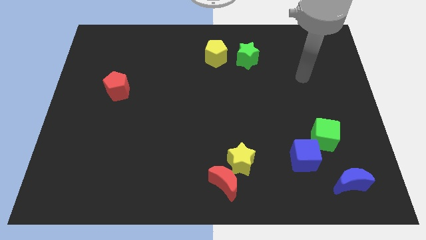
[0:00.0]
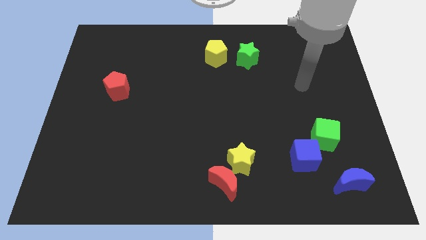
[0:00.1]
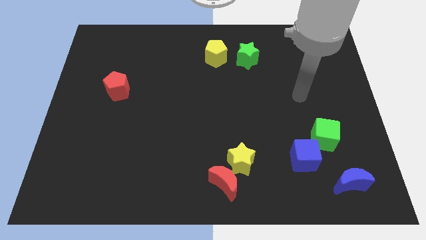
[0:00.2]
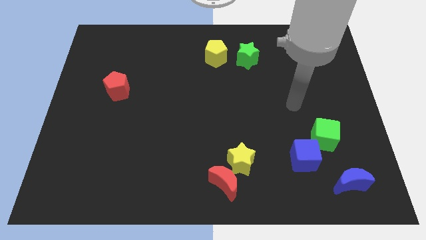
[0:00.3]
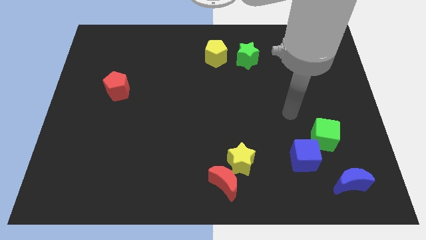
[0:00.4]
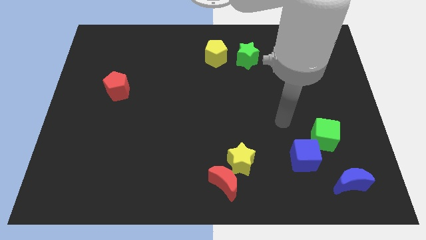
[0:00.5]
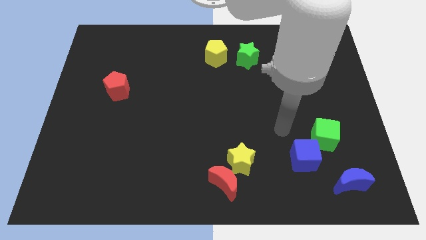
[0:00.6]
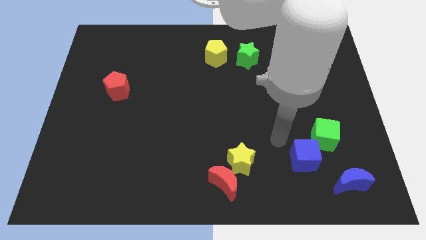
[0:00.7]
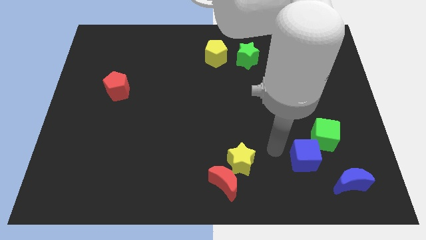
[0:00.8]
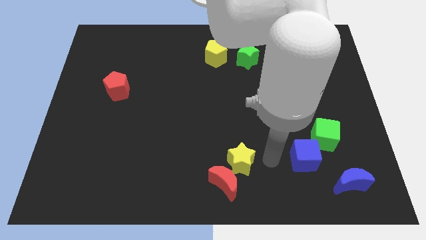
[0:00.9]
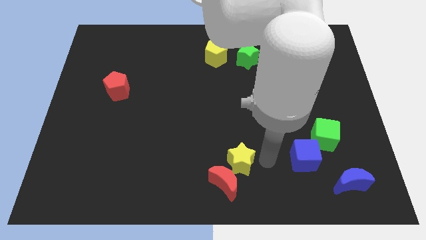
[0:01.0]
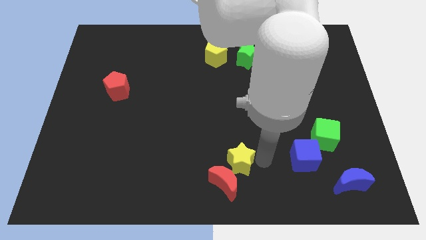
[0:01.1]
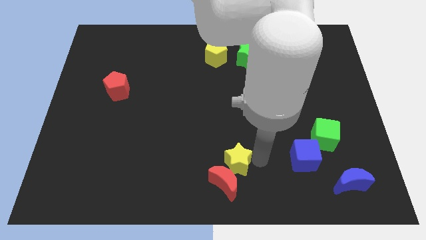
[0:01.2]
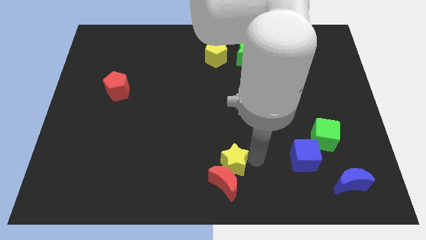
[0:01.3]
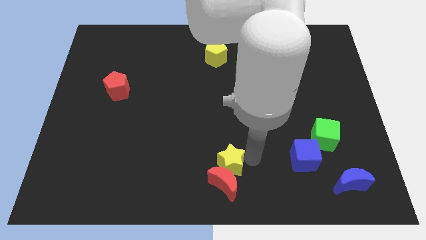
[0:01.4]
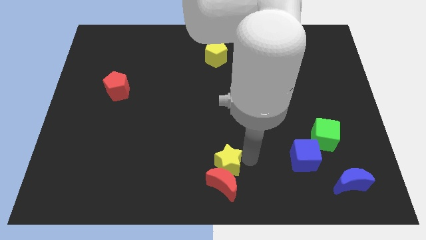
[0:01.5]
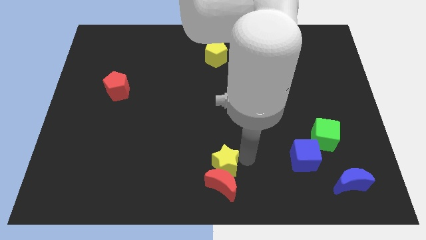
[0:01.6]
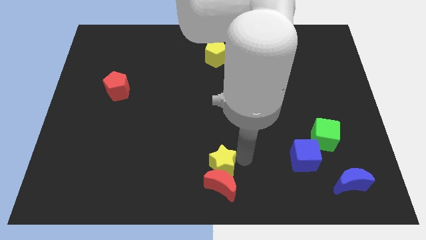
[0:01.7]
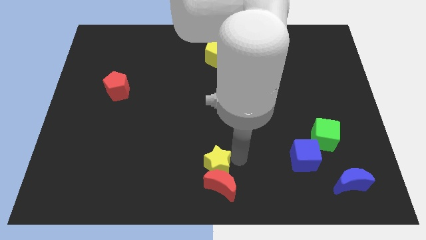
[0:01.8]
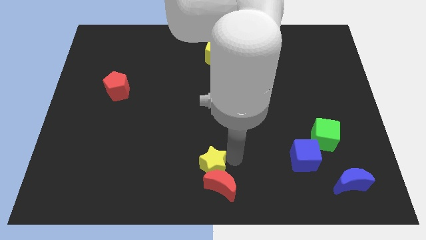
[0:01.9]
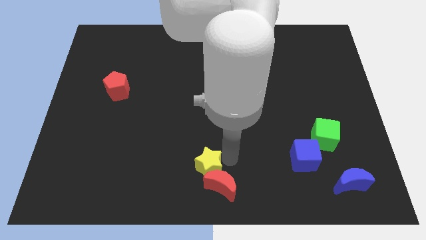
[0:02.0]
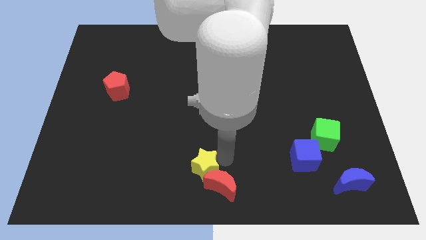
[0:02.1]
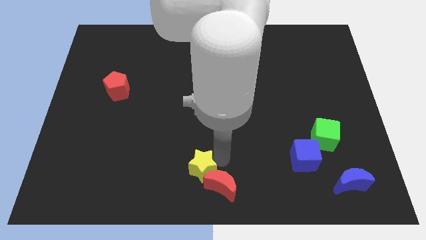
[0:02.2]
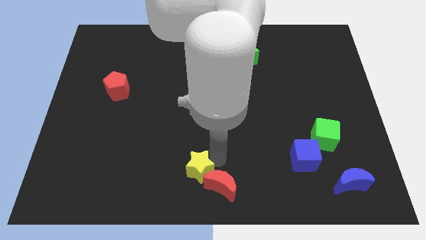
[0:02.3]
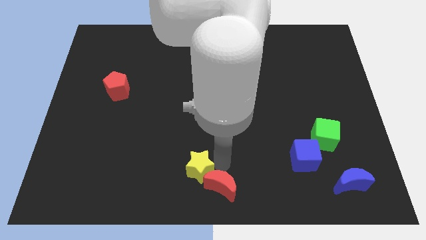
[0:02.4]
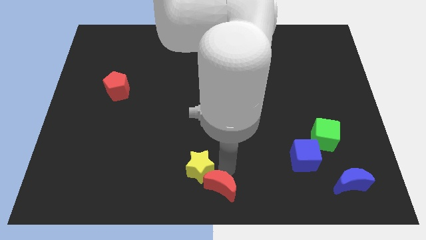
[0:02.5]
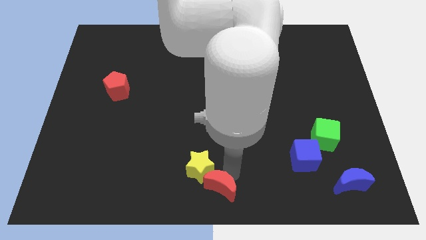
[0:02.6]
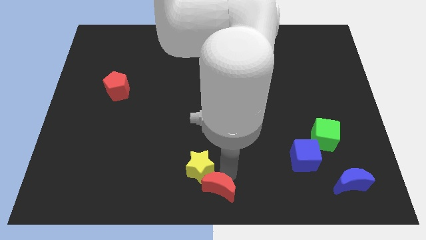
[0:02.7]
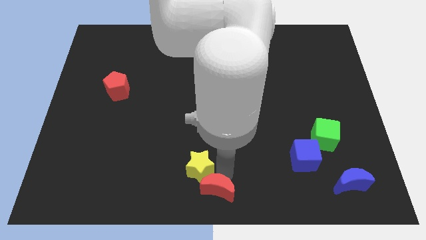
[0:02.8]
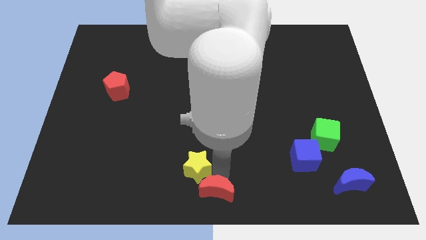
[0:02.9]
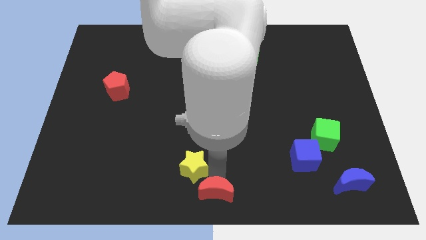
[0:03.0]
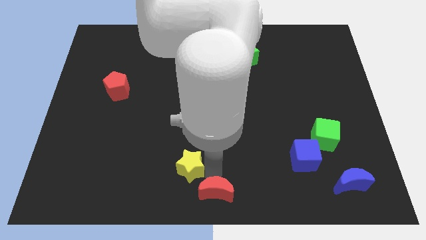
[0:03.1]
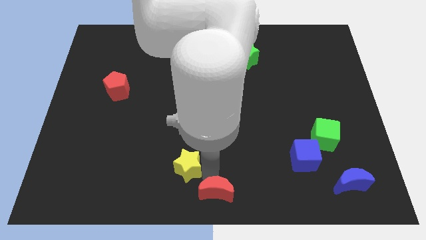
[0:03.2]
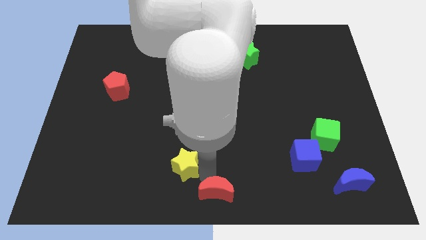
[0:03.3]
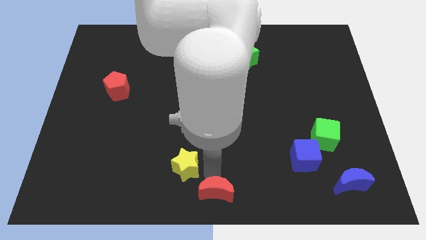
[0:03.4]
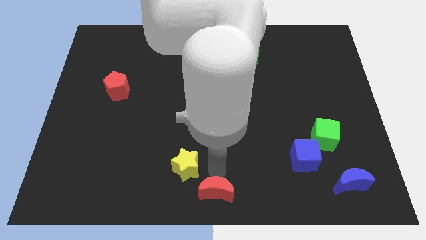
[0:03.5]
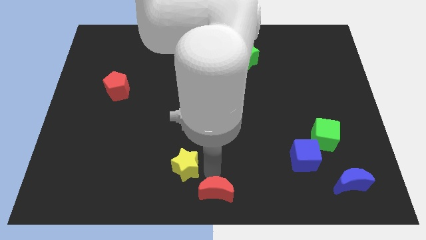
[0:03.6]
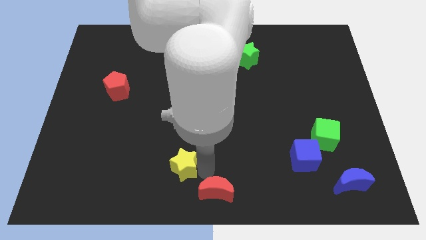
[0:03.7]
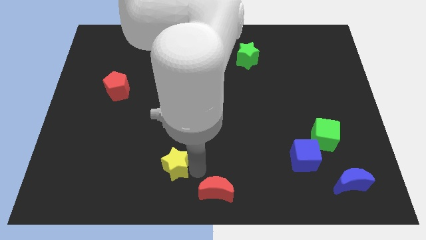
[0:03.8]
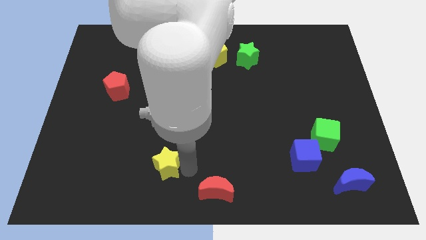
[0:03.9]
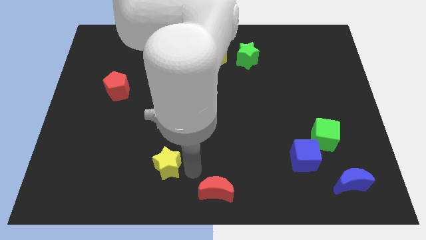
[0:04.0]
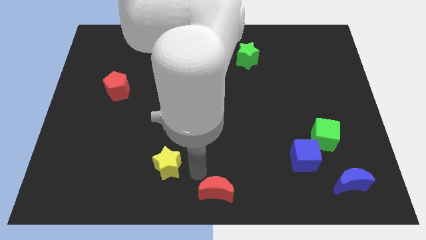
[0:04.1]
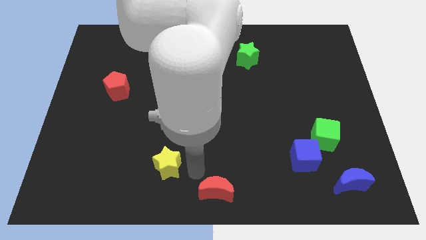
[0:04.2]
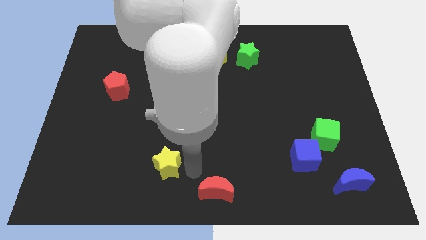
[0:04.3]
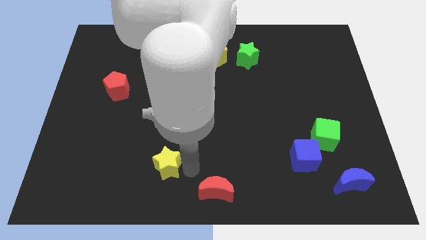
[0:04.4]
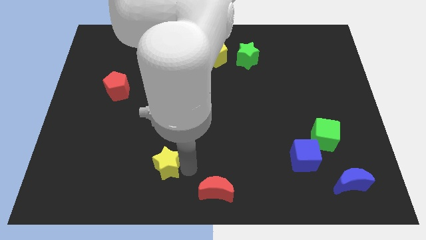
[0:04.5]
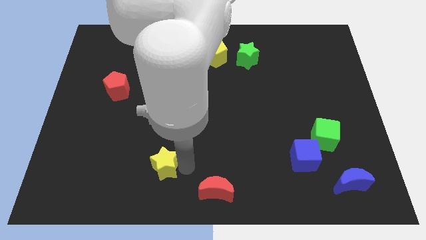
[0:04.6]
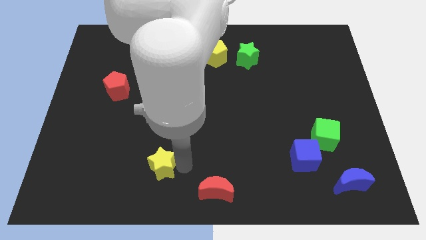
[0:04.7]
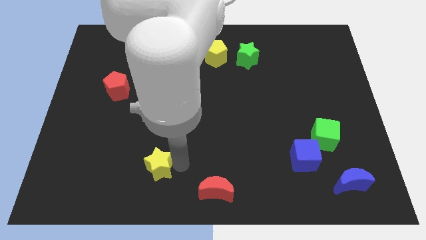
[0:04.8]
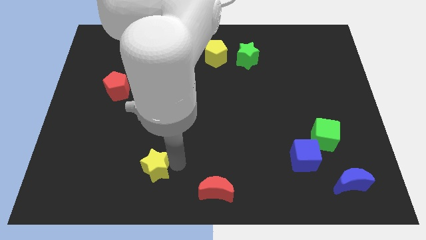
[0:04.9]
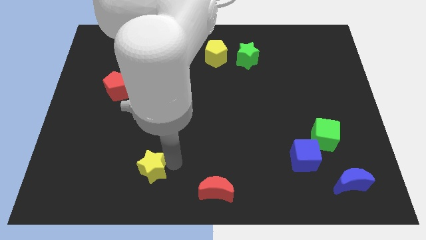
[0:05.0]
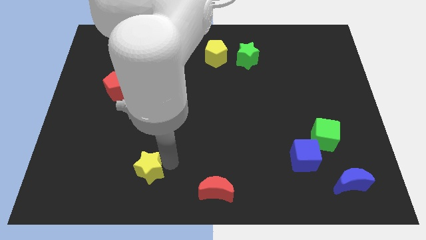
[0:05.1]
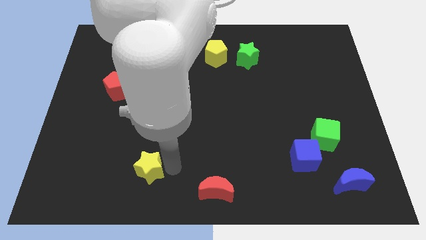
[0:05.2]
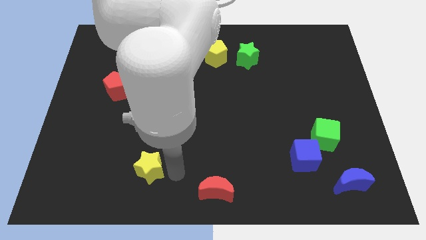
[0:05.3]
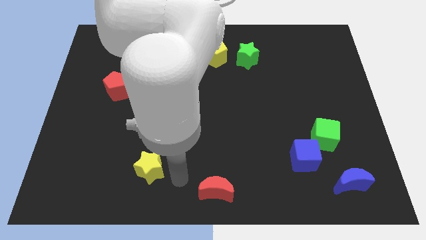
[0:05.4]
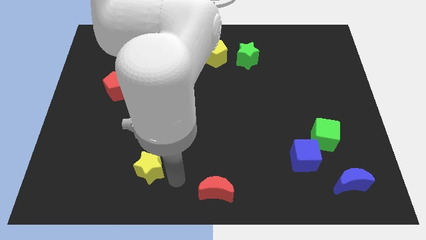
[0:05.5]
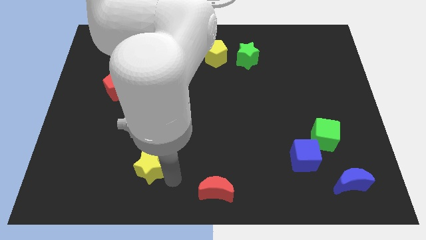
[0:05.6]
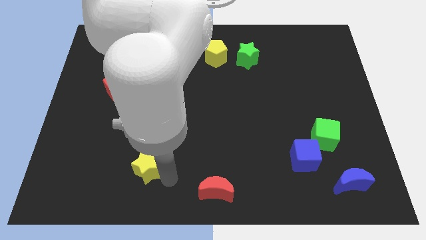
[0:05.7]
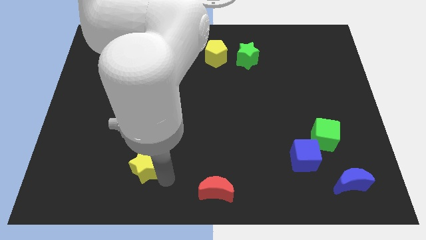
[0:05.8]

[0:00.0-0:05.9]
move the yellow star left

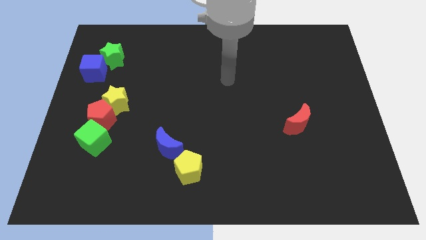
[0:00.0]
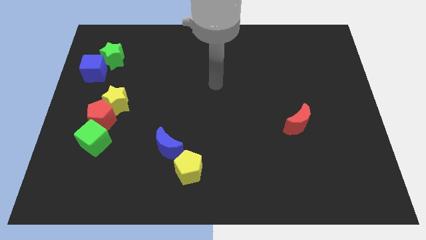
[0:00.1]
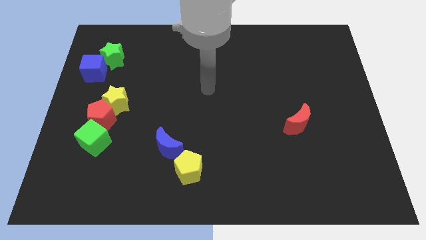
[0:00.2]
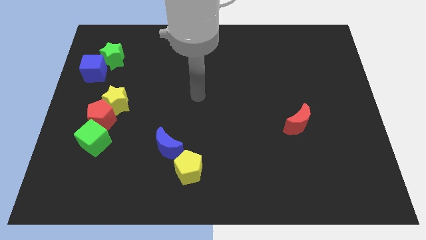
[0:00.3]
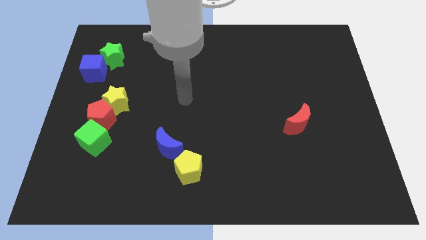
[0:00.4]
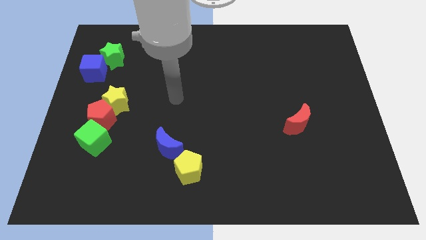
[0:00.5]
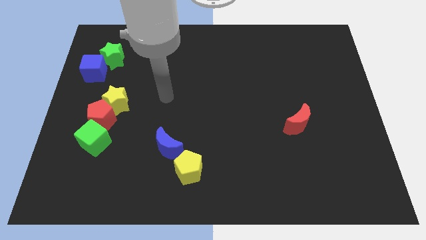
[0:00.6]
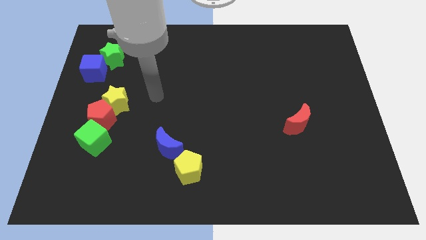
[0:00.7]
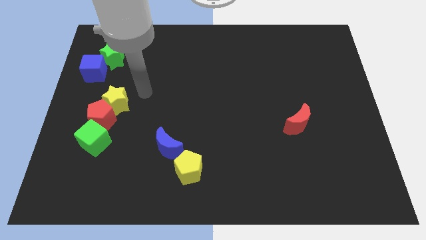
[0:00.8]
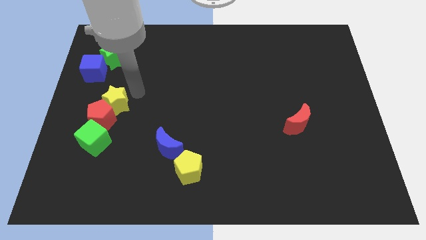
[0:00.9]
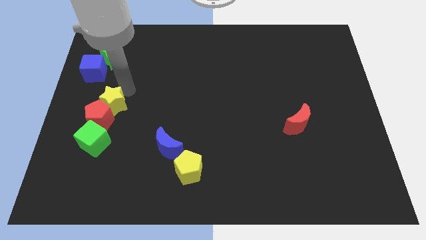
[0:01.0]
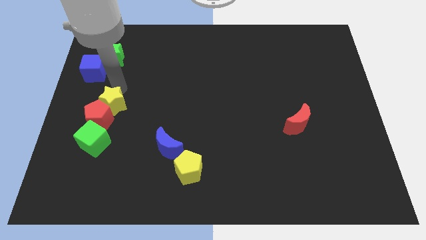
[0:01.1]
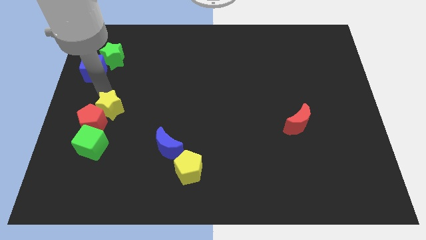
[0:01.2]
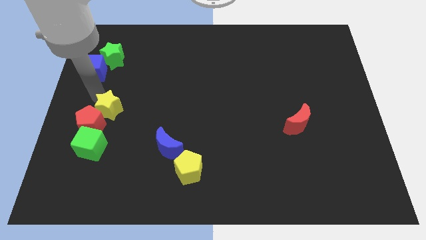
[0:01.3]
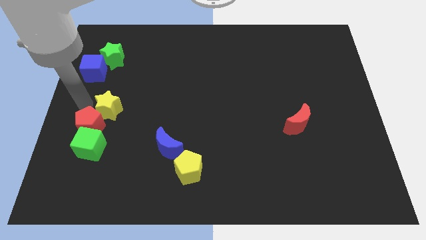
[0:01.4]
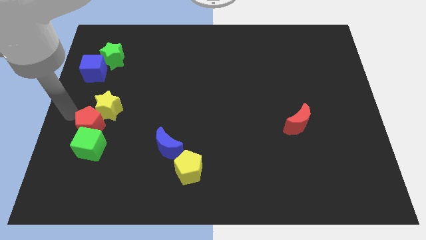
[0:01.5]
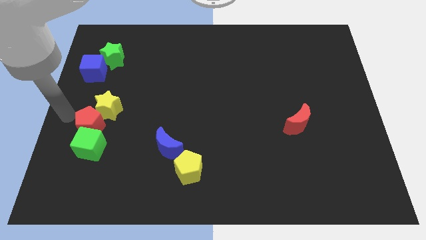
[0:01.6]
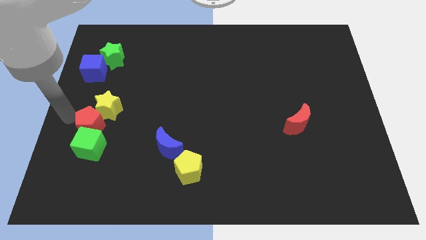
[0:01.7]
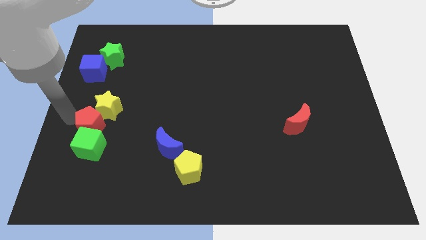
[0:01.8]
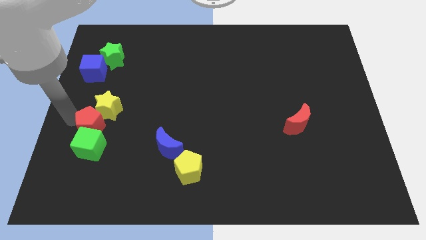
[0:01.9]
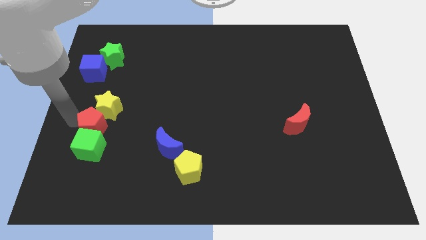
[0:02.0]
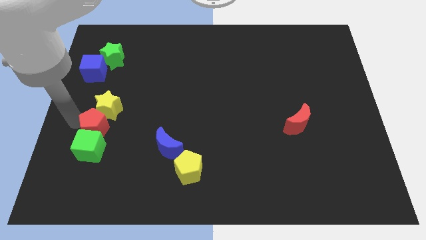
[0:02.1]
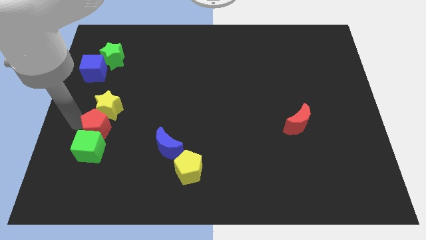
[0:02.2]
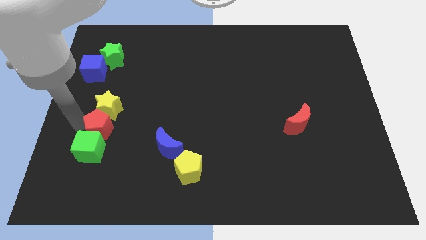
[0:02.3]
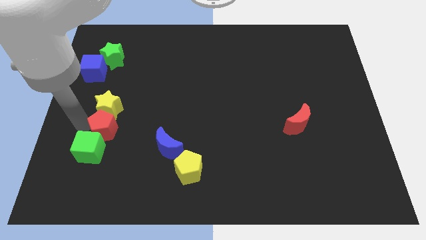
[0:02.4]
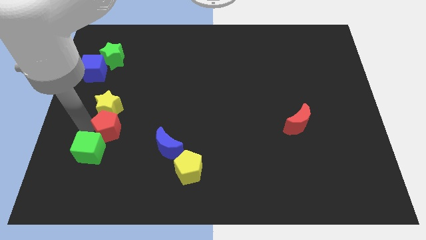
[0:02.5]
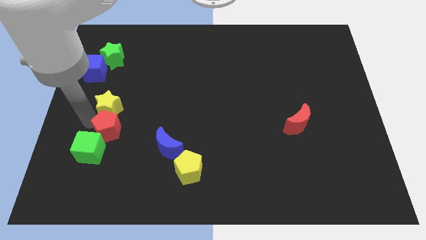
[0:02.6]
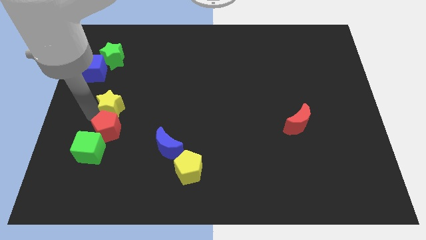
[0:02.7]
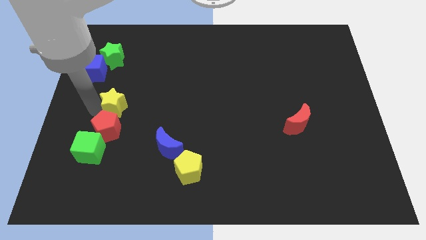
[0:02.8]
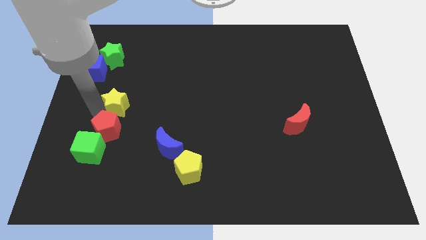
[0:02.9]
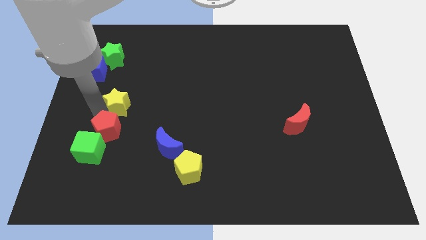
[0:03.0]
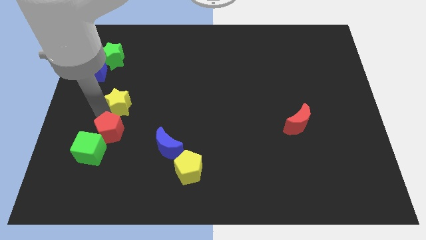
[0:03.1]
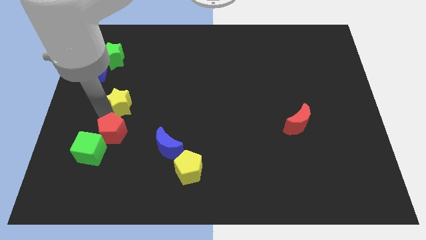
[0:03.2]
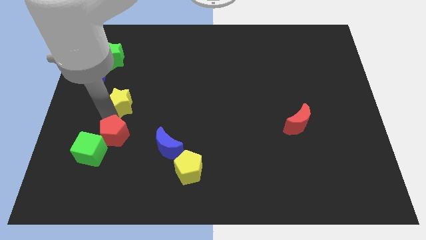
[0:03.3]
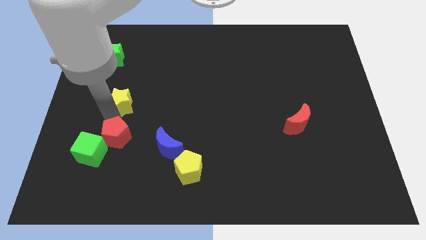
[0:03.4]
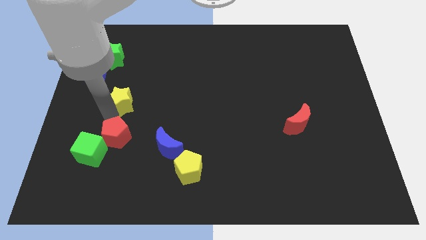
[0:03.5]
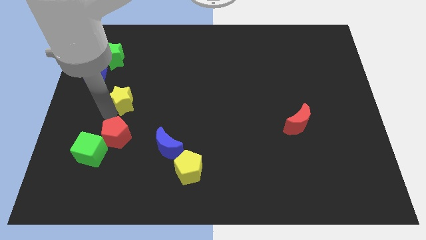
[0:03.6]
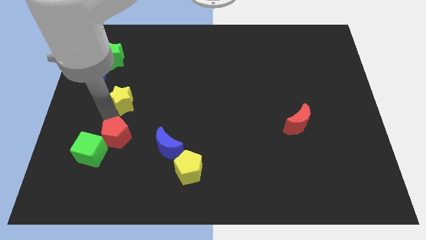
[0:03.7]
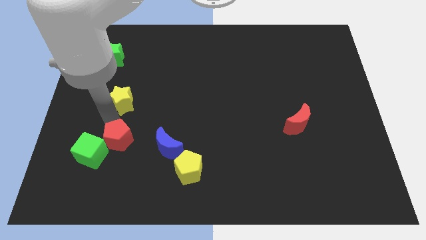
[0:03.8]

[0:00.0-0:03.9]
slightly move the red pentagon down and then to the right
